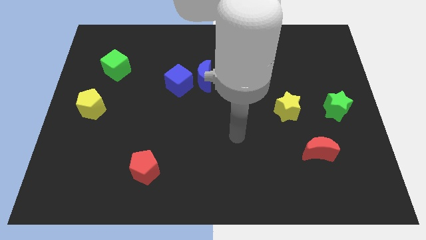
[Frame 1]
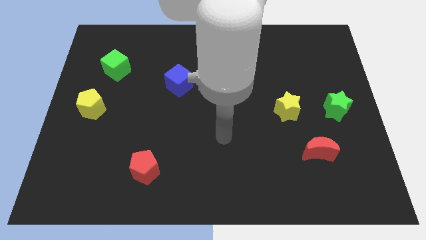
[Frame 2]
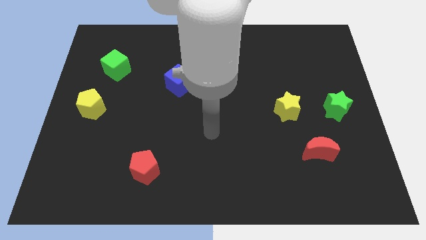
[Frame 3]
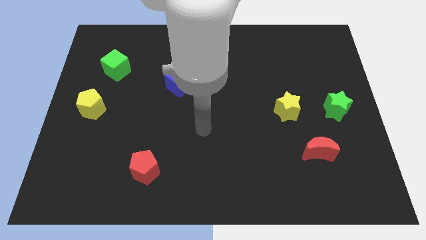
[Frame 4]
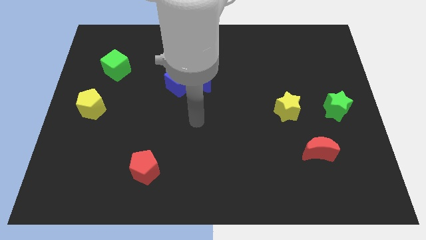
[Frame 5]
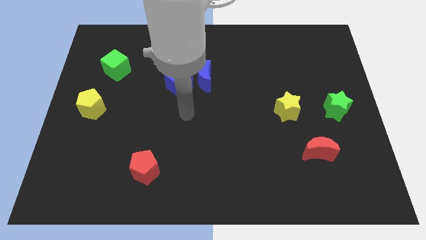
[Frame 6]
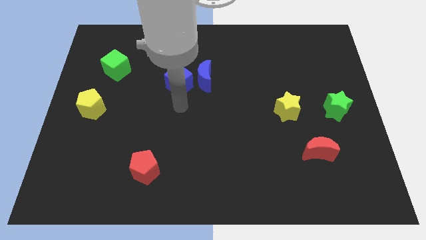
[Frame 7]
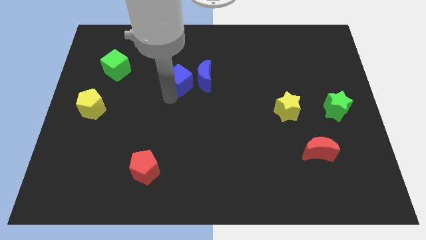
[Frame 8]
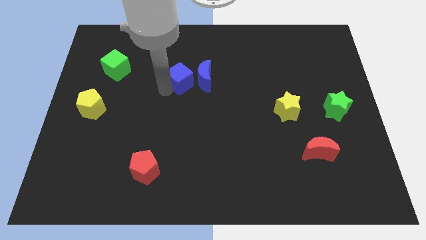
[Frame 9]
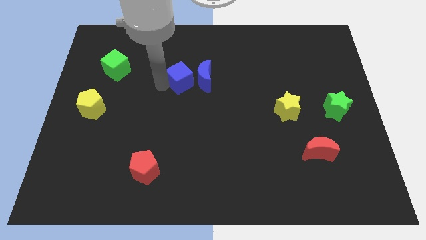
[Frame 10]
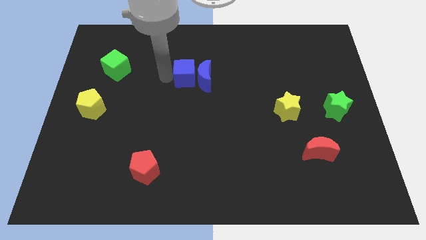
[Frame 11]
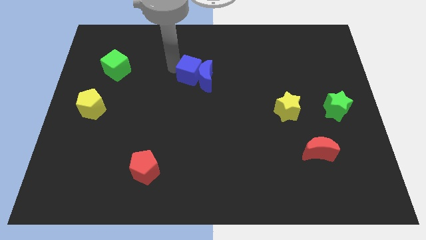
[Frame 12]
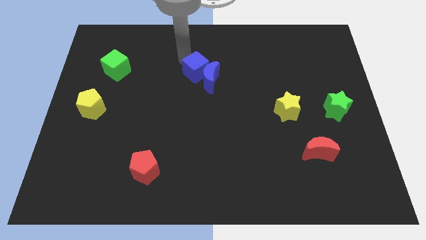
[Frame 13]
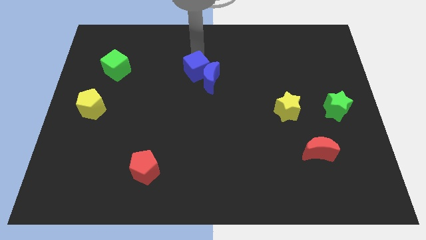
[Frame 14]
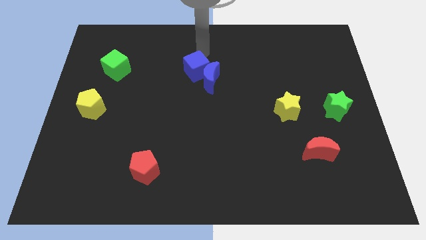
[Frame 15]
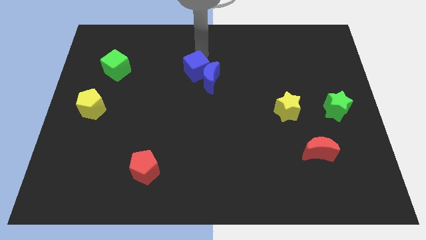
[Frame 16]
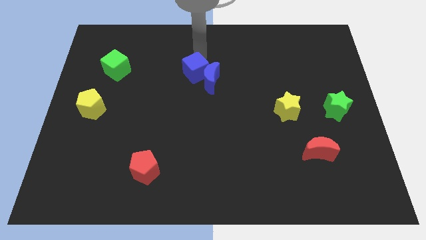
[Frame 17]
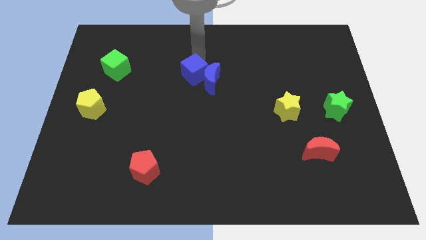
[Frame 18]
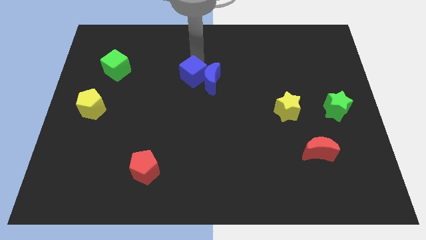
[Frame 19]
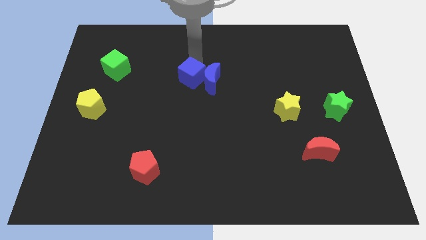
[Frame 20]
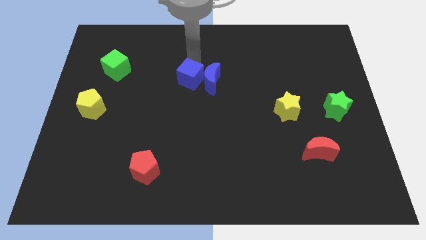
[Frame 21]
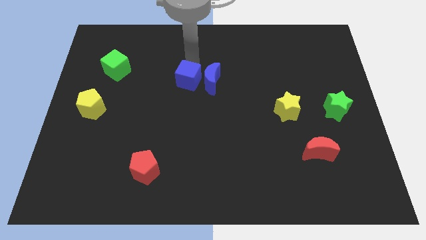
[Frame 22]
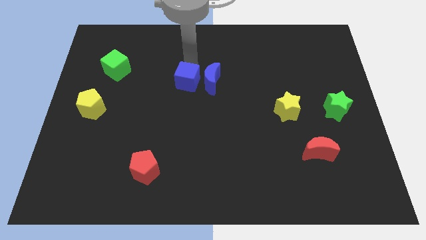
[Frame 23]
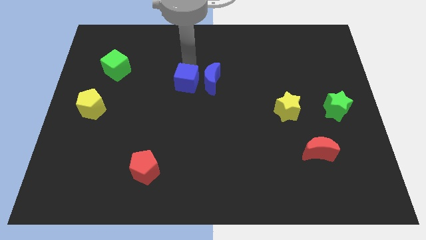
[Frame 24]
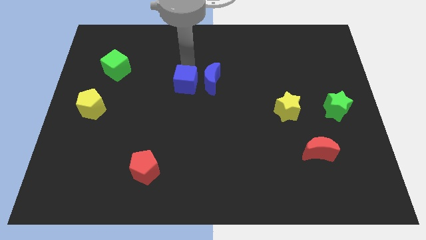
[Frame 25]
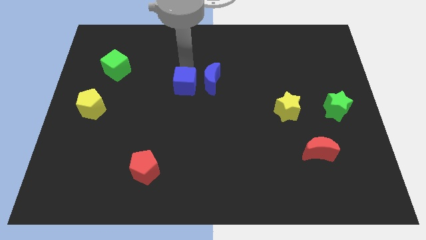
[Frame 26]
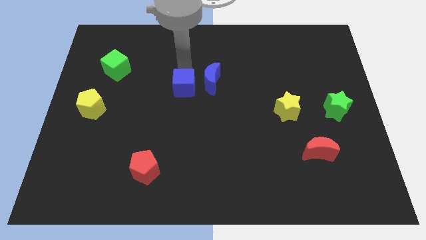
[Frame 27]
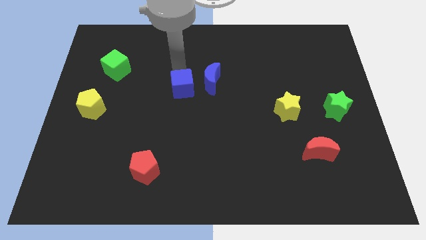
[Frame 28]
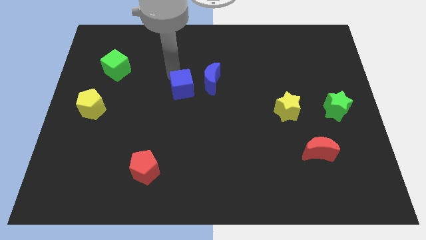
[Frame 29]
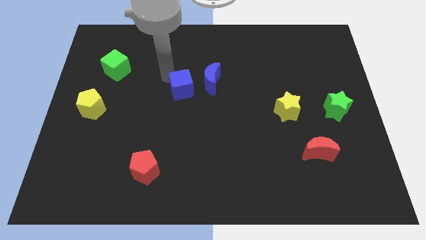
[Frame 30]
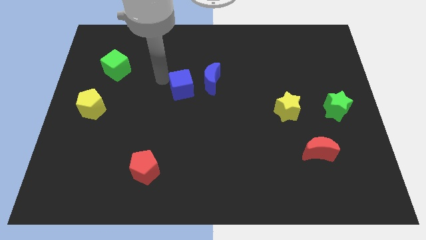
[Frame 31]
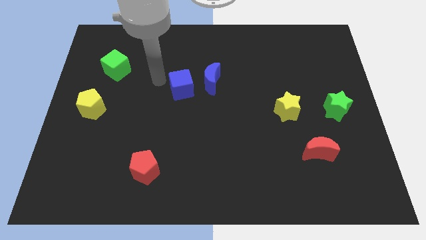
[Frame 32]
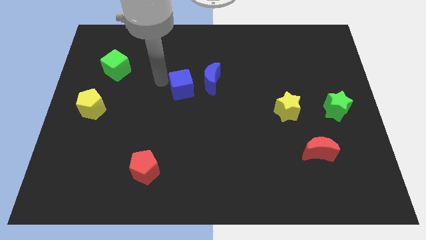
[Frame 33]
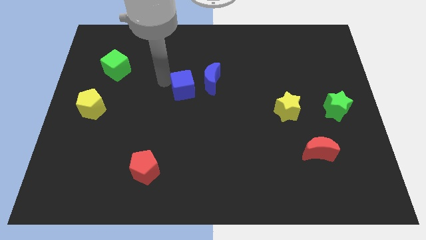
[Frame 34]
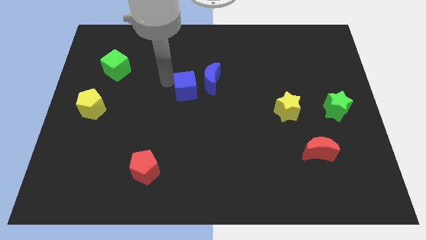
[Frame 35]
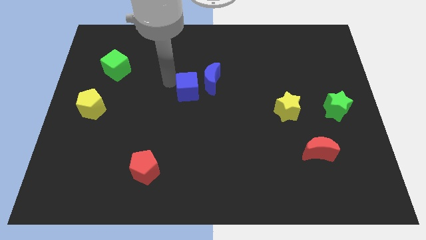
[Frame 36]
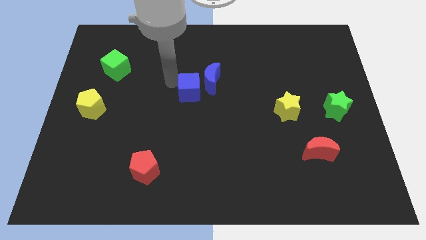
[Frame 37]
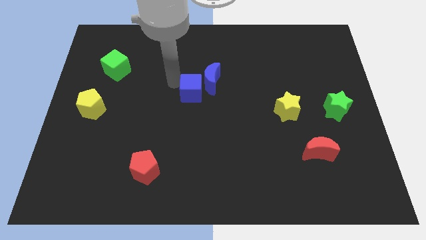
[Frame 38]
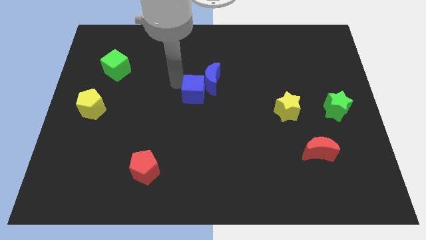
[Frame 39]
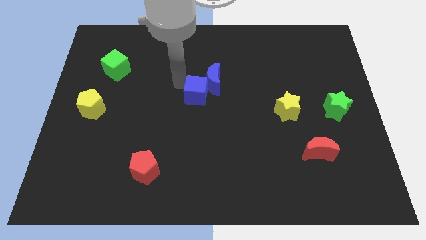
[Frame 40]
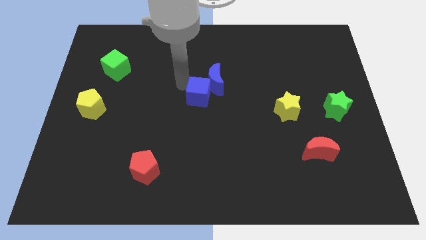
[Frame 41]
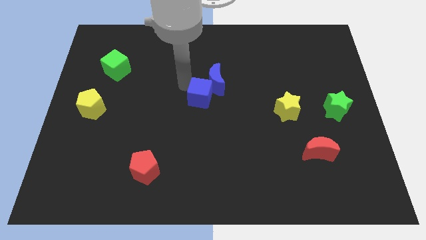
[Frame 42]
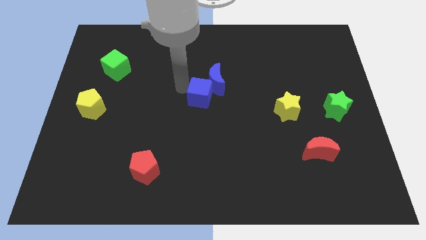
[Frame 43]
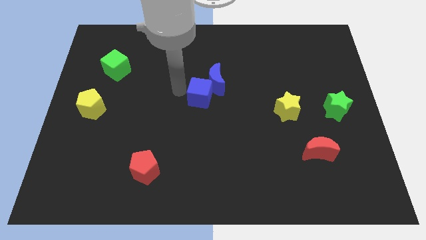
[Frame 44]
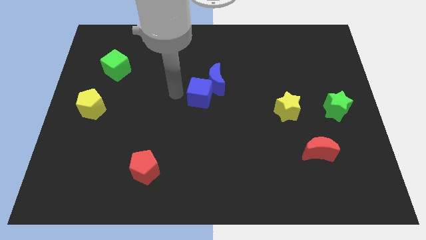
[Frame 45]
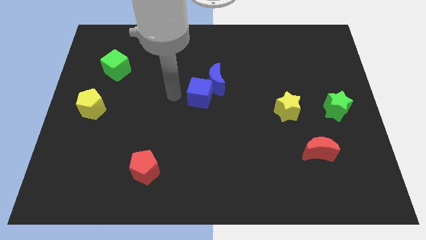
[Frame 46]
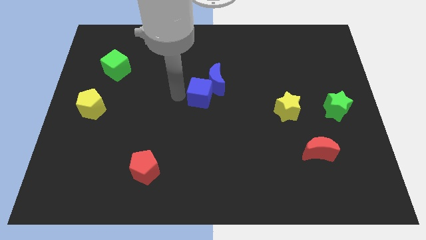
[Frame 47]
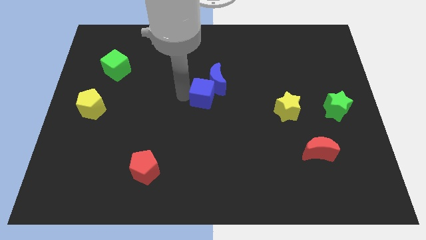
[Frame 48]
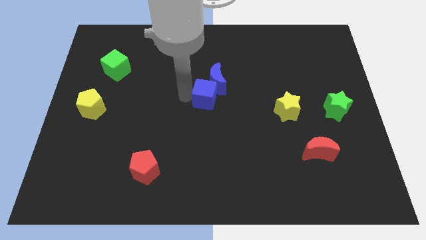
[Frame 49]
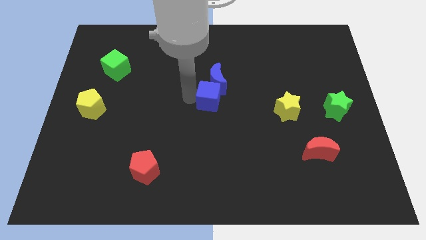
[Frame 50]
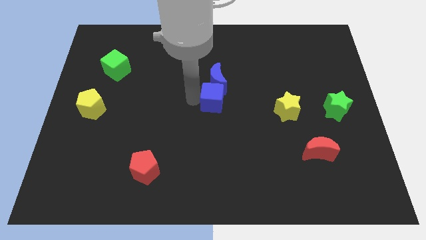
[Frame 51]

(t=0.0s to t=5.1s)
move the blue cube right slightly

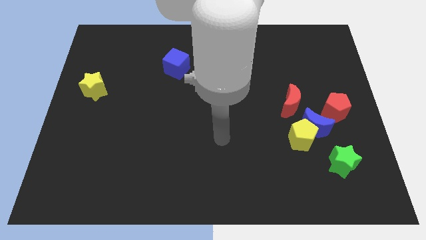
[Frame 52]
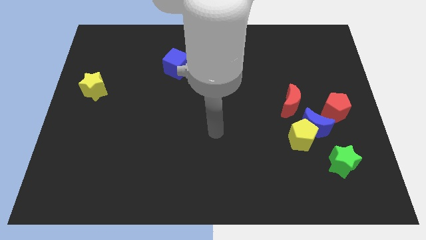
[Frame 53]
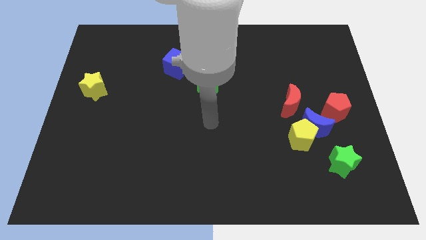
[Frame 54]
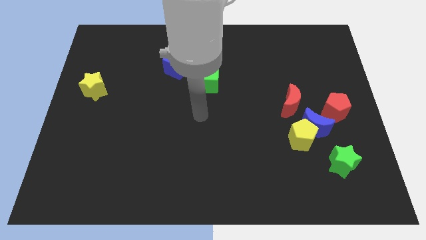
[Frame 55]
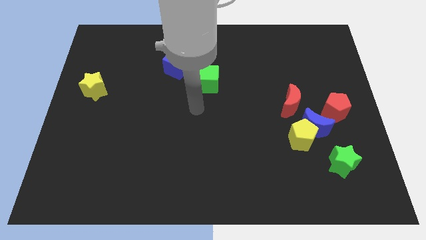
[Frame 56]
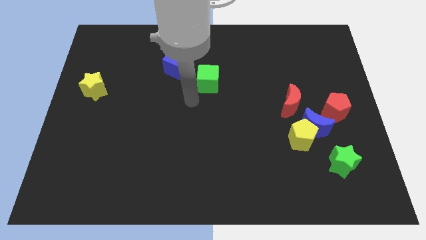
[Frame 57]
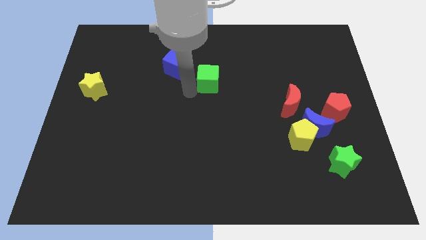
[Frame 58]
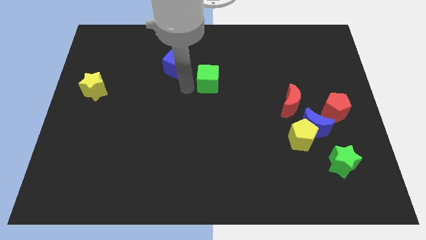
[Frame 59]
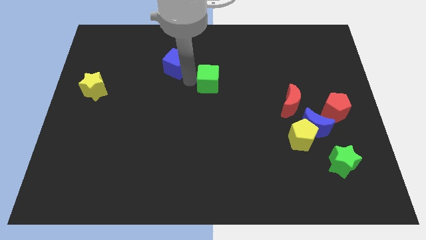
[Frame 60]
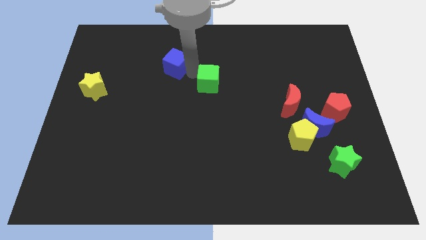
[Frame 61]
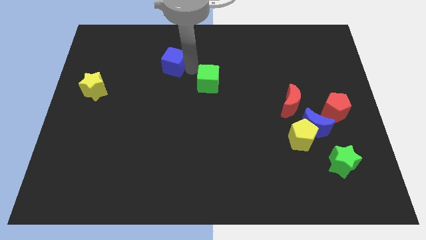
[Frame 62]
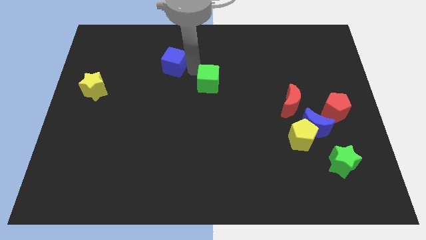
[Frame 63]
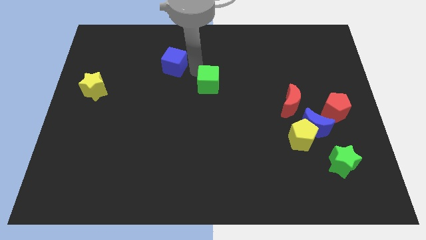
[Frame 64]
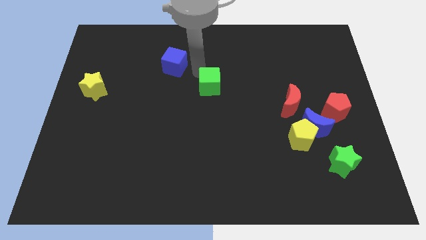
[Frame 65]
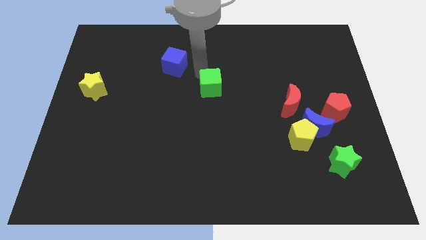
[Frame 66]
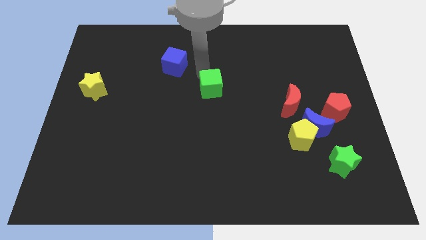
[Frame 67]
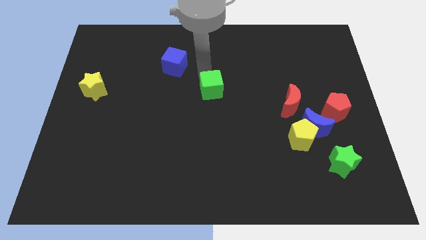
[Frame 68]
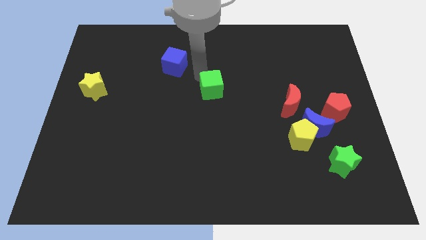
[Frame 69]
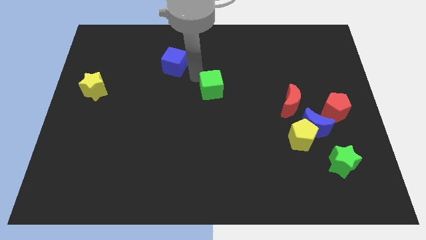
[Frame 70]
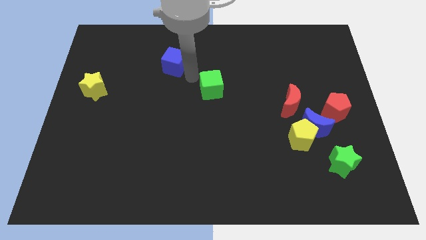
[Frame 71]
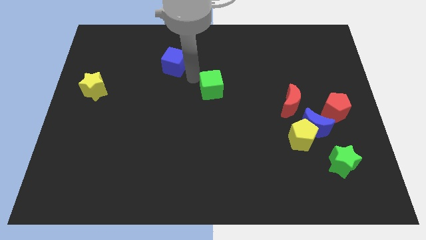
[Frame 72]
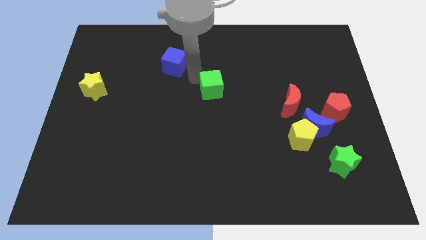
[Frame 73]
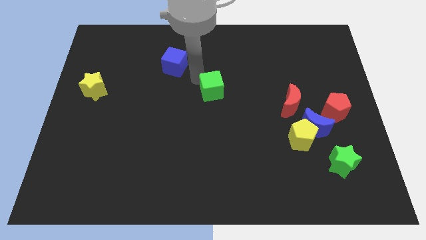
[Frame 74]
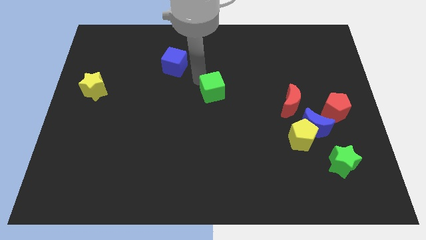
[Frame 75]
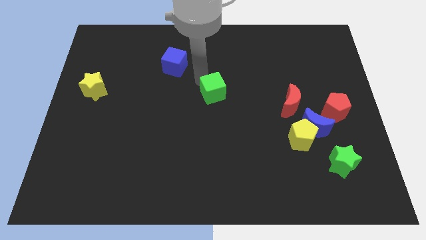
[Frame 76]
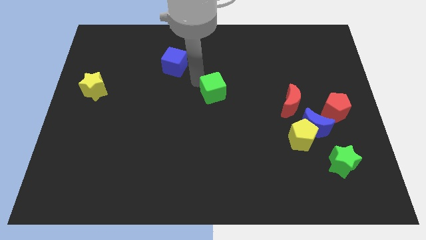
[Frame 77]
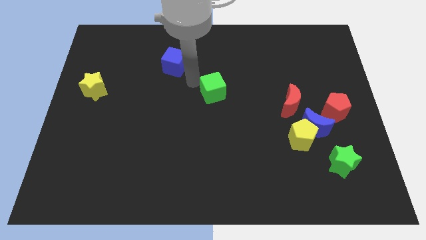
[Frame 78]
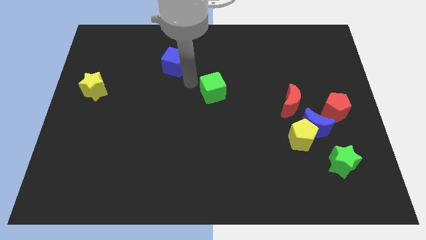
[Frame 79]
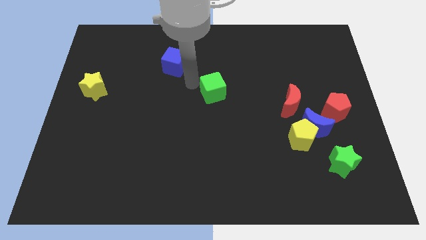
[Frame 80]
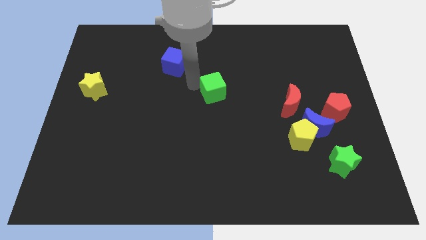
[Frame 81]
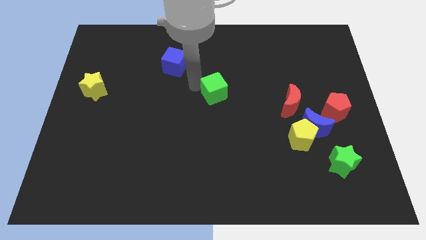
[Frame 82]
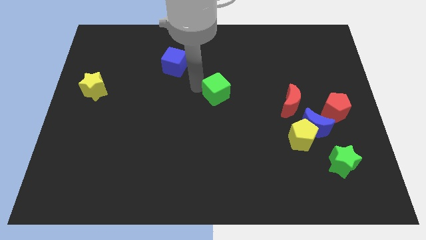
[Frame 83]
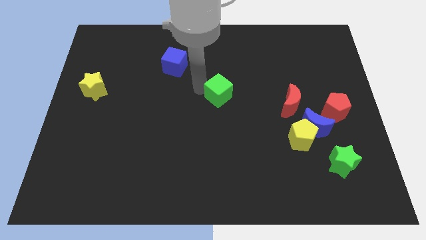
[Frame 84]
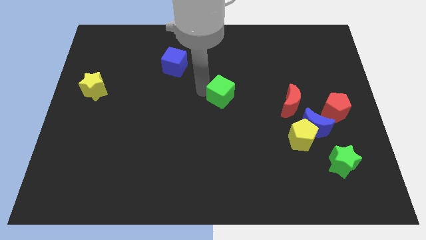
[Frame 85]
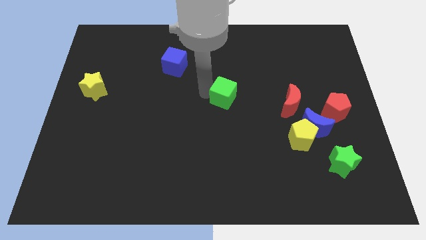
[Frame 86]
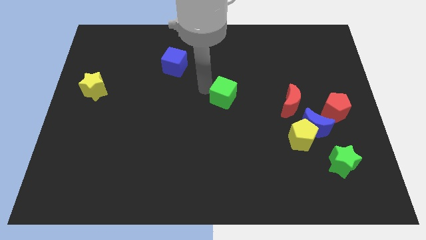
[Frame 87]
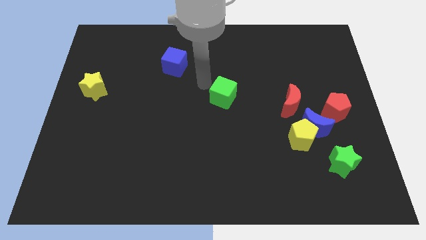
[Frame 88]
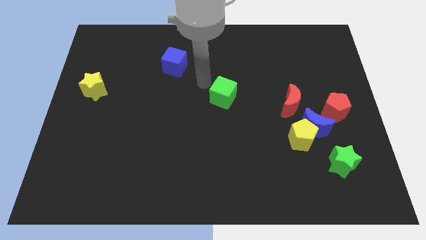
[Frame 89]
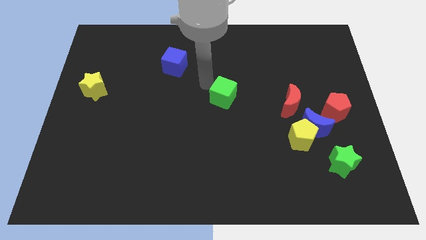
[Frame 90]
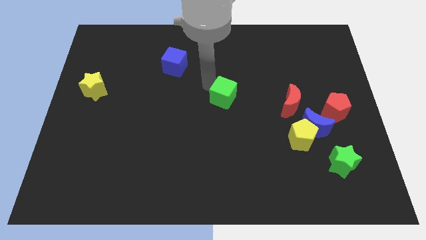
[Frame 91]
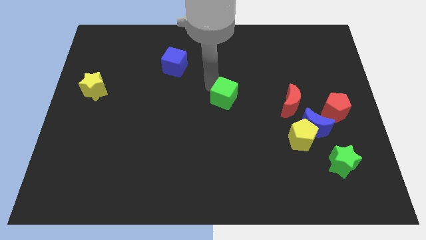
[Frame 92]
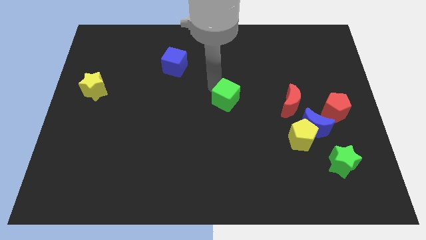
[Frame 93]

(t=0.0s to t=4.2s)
move the green cube slightly downwards and to the right diagonally
